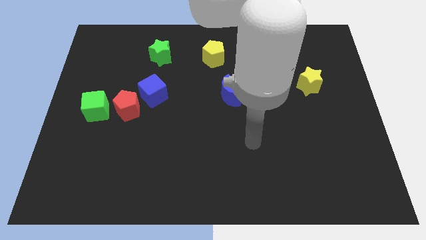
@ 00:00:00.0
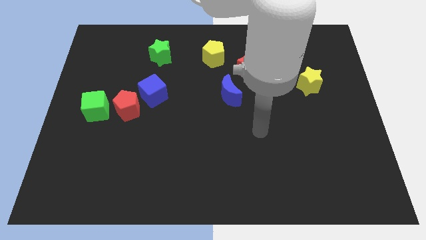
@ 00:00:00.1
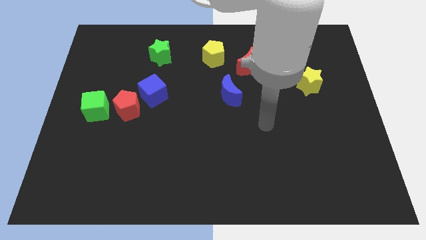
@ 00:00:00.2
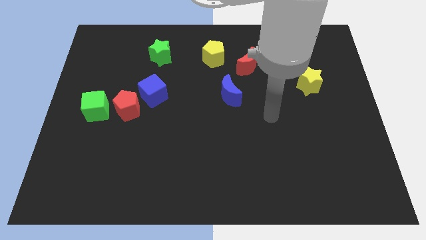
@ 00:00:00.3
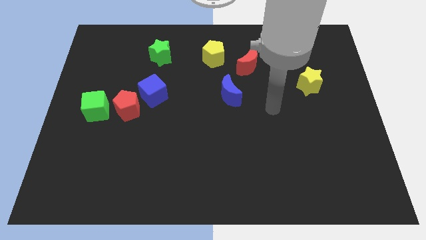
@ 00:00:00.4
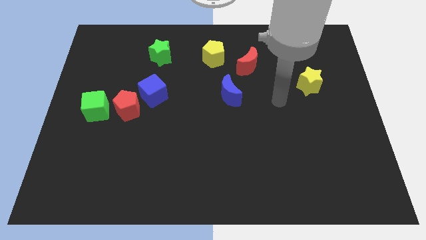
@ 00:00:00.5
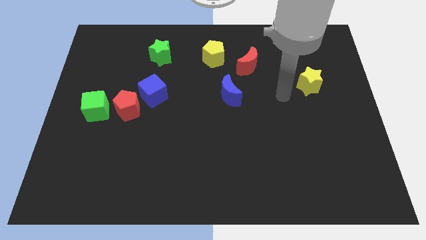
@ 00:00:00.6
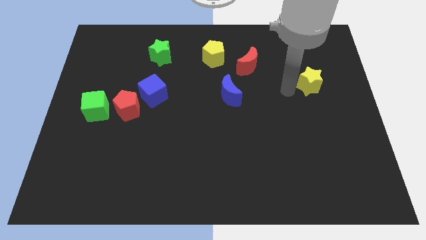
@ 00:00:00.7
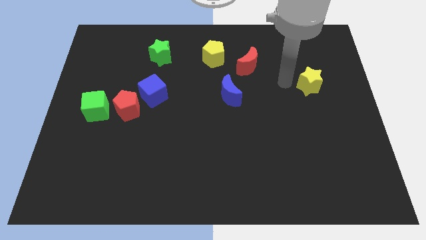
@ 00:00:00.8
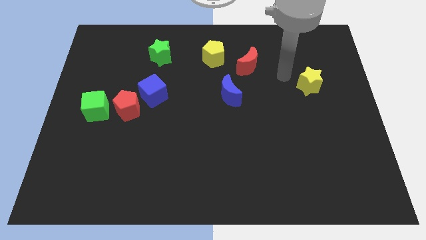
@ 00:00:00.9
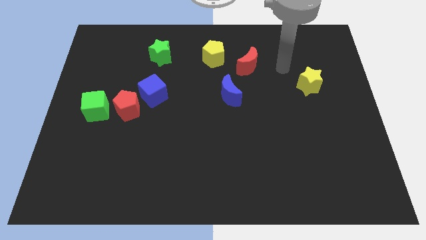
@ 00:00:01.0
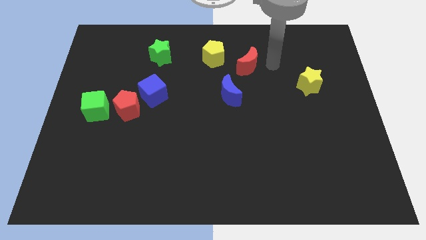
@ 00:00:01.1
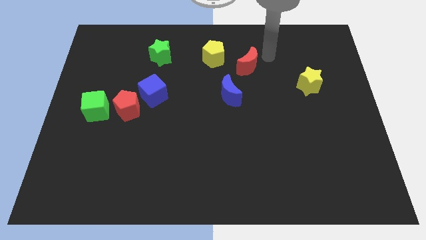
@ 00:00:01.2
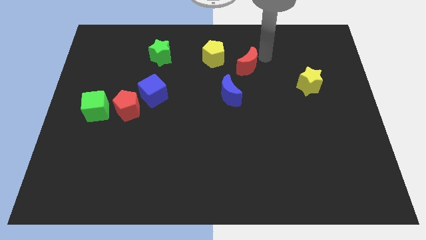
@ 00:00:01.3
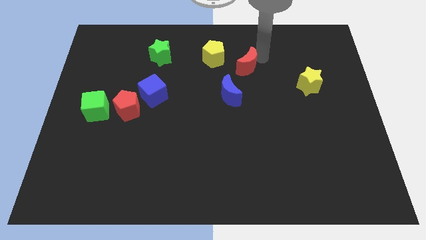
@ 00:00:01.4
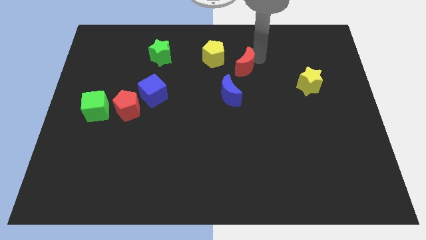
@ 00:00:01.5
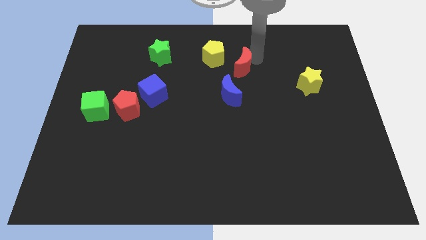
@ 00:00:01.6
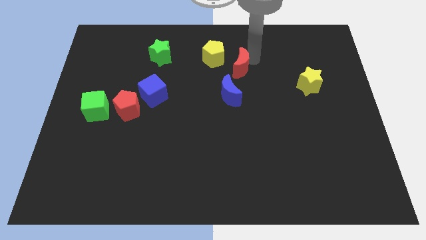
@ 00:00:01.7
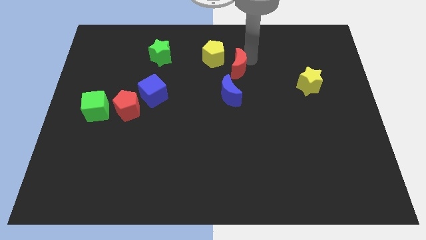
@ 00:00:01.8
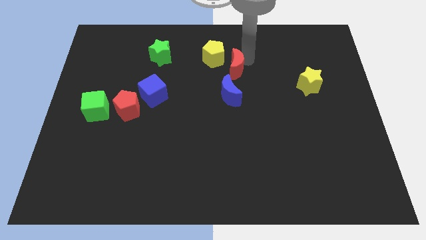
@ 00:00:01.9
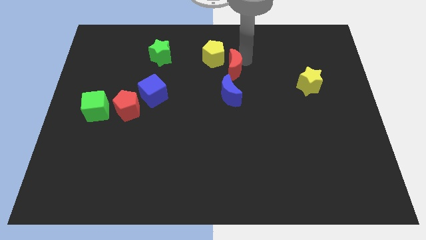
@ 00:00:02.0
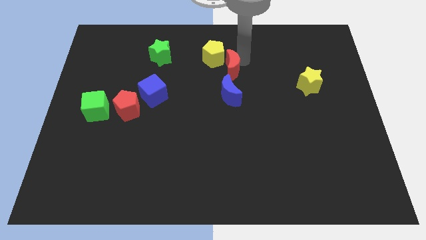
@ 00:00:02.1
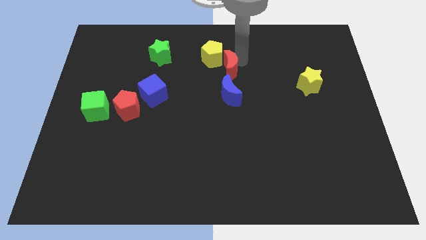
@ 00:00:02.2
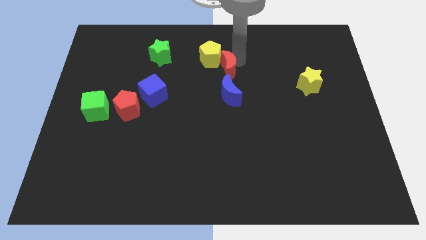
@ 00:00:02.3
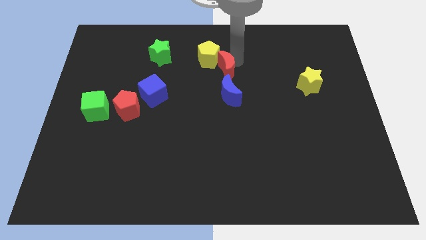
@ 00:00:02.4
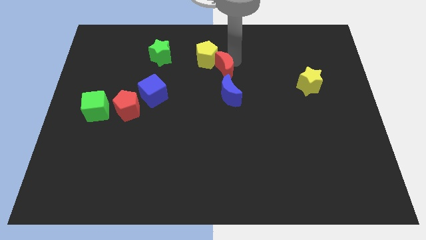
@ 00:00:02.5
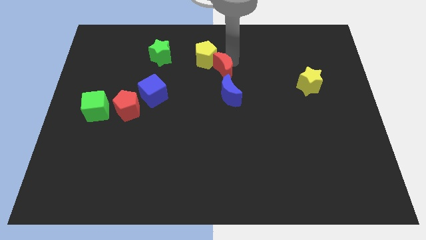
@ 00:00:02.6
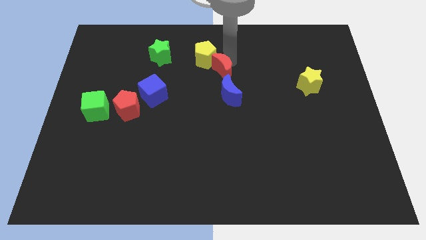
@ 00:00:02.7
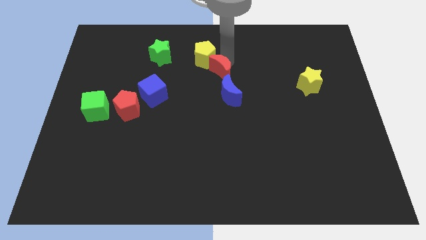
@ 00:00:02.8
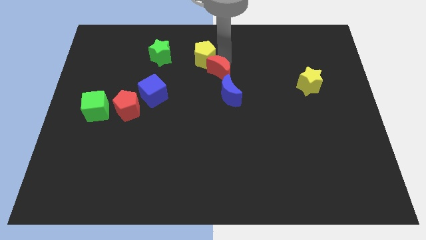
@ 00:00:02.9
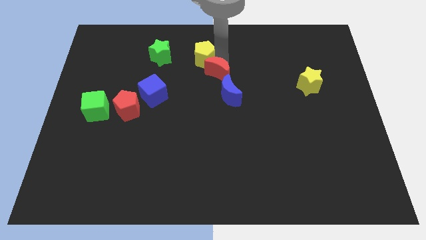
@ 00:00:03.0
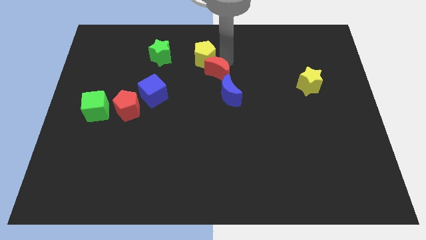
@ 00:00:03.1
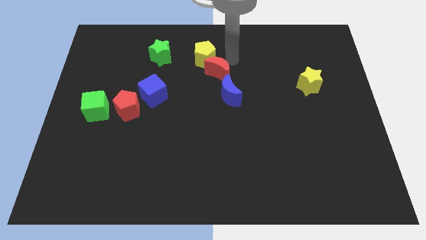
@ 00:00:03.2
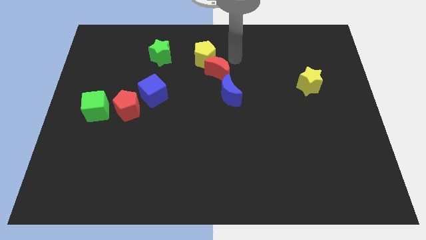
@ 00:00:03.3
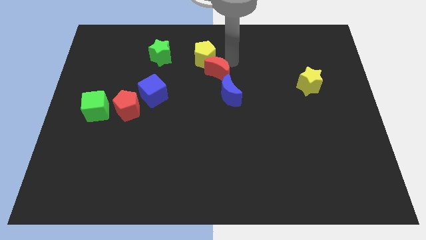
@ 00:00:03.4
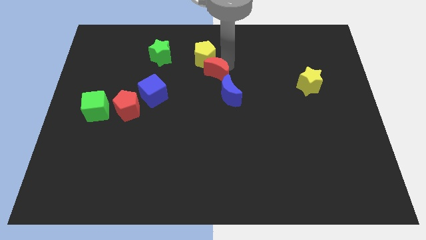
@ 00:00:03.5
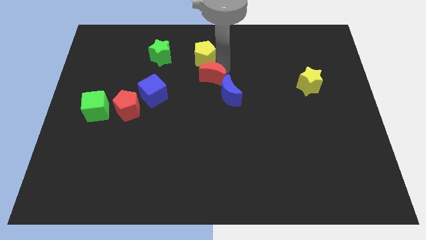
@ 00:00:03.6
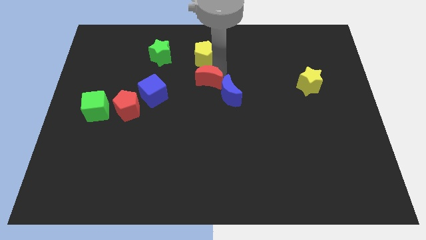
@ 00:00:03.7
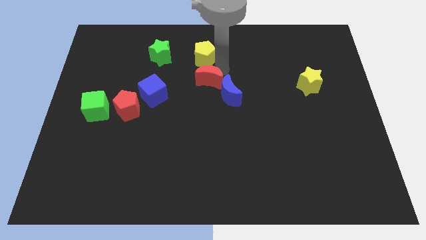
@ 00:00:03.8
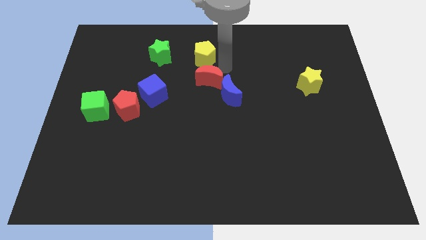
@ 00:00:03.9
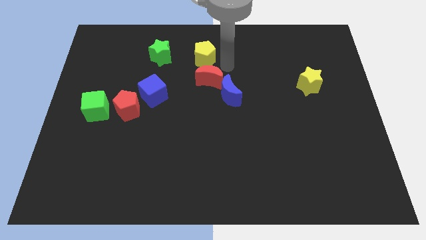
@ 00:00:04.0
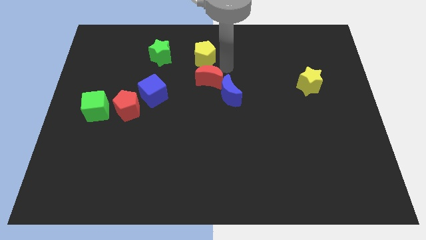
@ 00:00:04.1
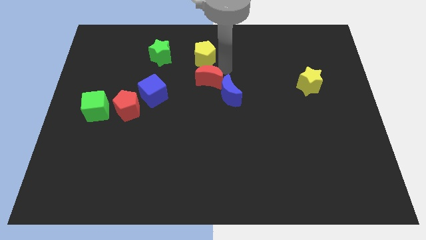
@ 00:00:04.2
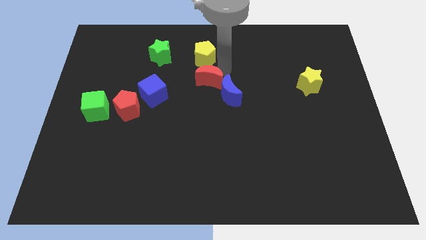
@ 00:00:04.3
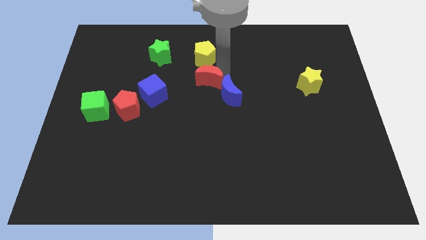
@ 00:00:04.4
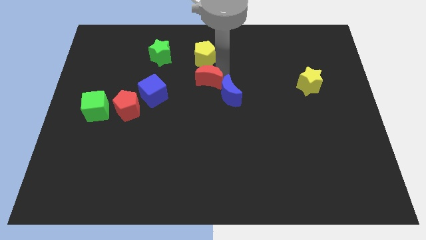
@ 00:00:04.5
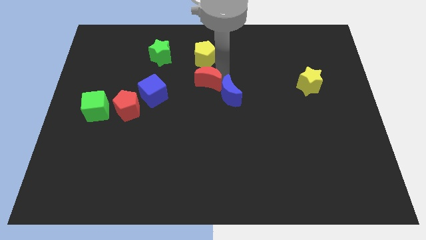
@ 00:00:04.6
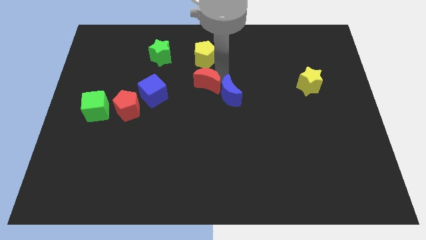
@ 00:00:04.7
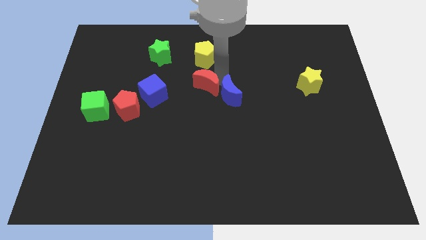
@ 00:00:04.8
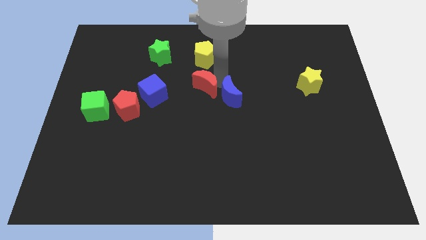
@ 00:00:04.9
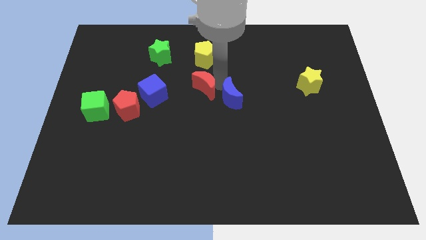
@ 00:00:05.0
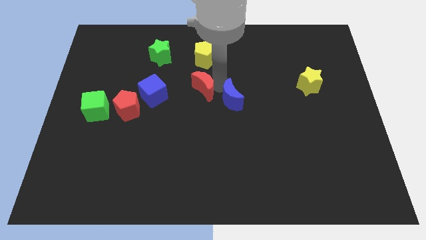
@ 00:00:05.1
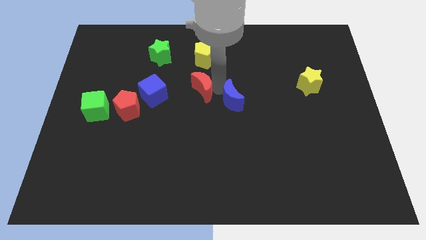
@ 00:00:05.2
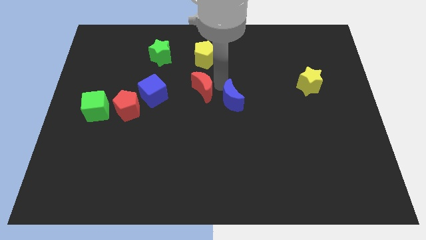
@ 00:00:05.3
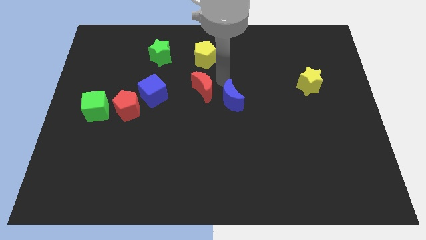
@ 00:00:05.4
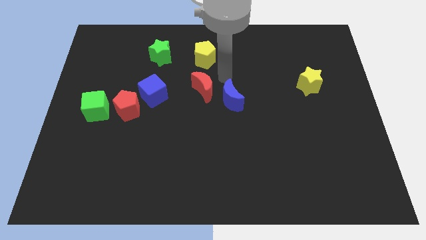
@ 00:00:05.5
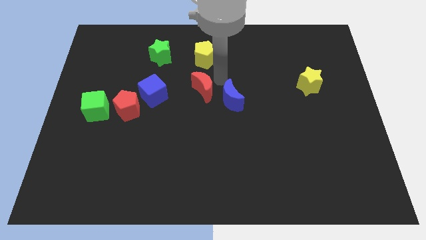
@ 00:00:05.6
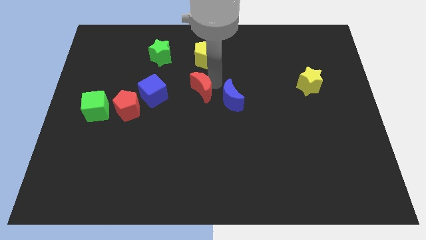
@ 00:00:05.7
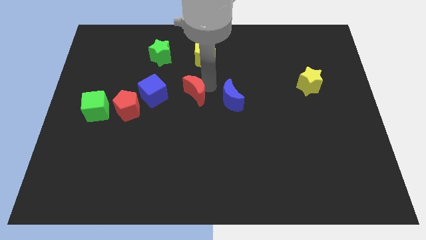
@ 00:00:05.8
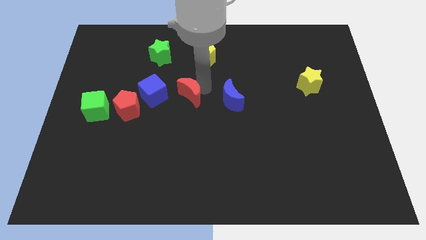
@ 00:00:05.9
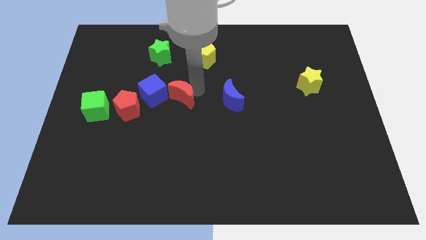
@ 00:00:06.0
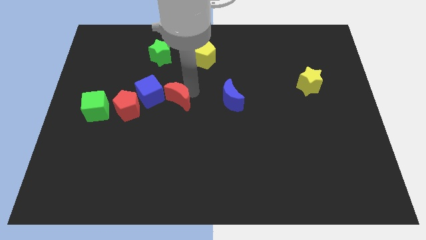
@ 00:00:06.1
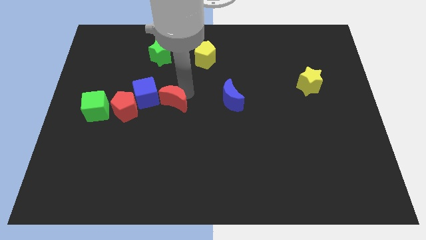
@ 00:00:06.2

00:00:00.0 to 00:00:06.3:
push the red moon down and then to the left

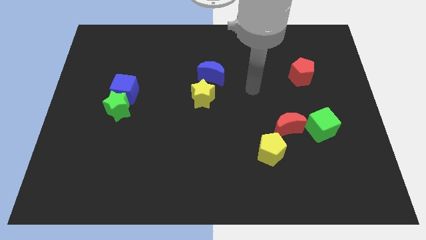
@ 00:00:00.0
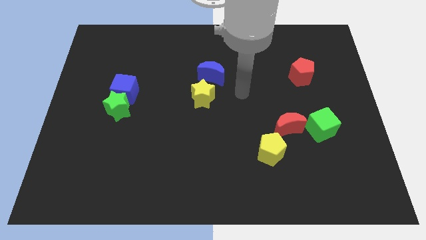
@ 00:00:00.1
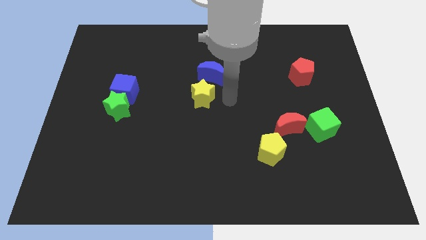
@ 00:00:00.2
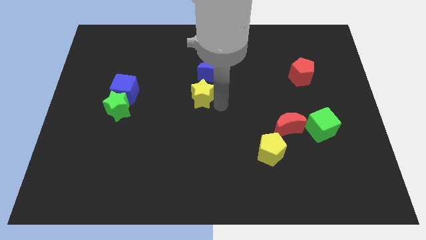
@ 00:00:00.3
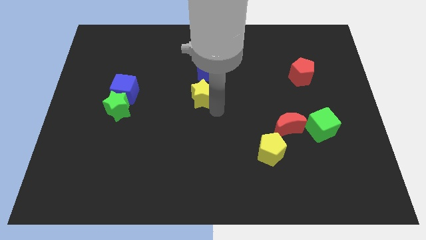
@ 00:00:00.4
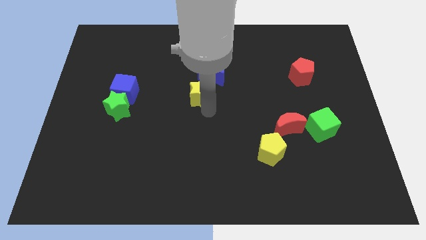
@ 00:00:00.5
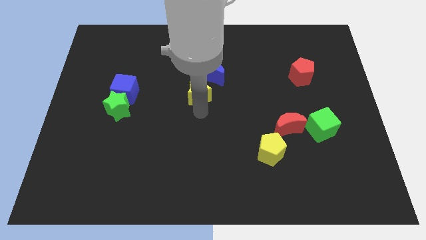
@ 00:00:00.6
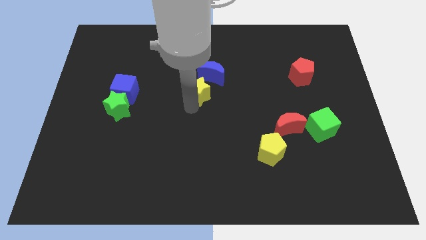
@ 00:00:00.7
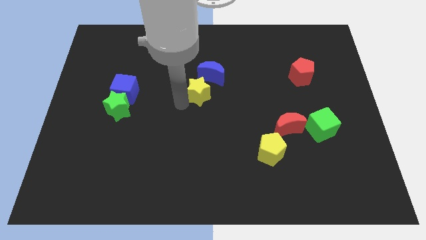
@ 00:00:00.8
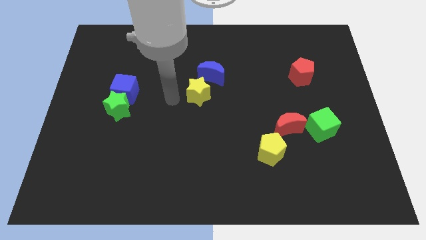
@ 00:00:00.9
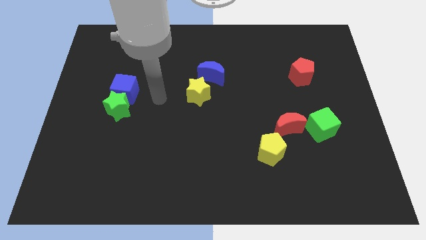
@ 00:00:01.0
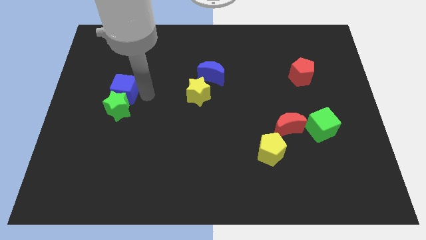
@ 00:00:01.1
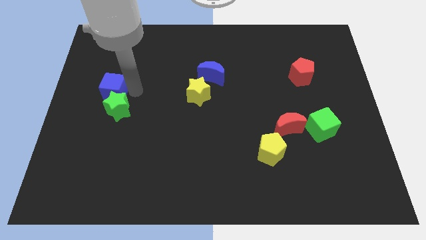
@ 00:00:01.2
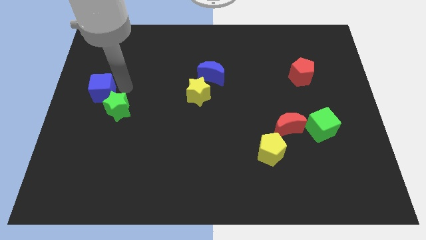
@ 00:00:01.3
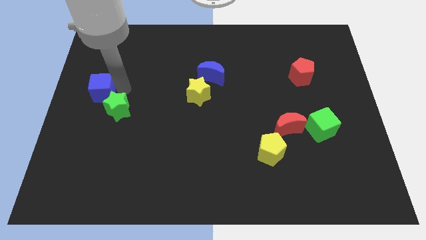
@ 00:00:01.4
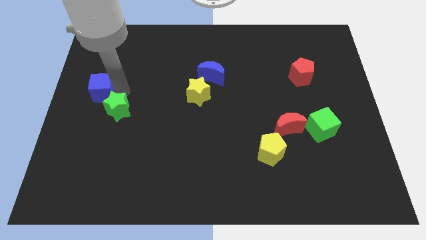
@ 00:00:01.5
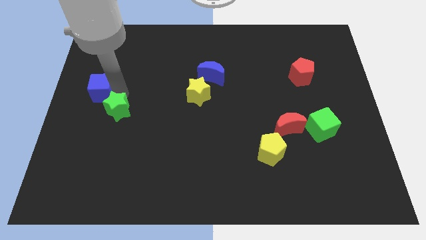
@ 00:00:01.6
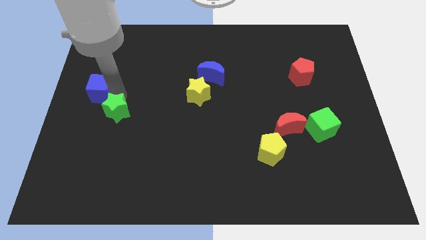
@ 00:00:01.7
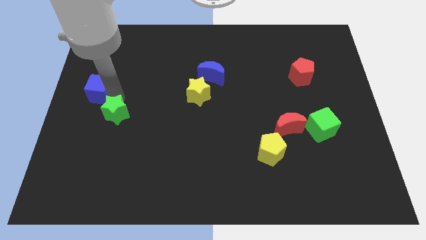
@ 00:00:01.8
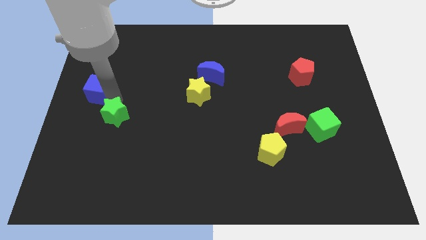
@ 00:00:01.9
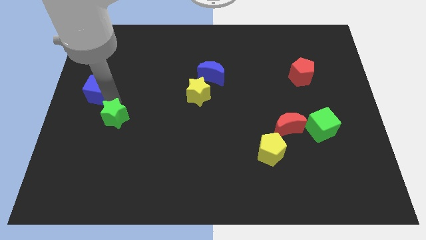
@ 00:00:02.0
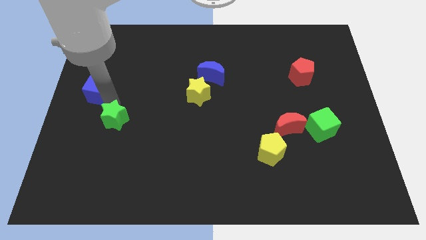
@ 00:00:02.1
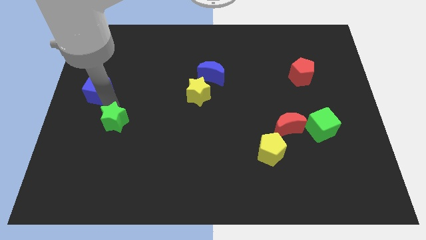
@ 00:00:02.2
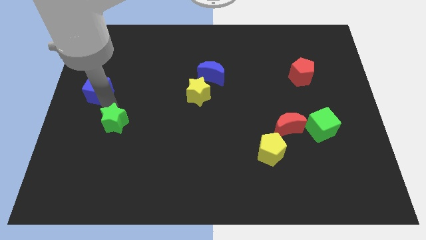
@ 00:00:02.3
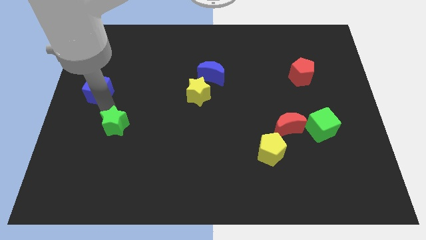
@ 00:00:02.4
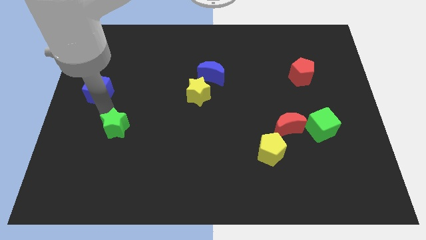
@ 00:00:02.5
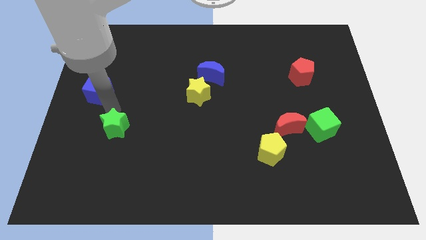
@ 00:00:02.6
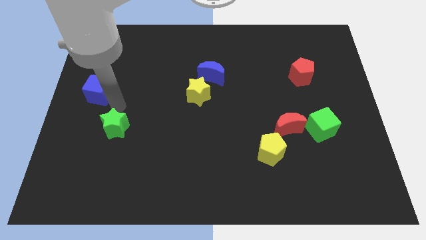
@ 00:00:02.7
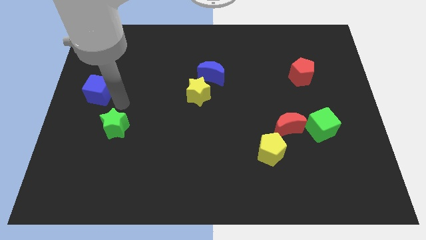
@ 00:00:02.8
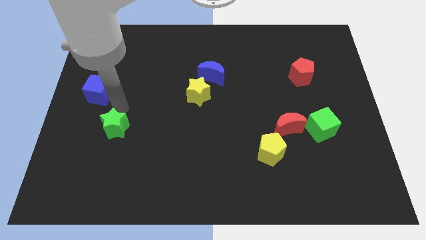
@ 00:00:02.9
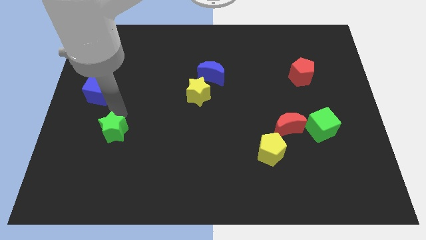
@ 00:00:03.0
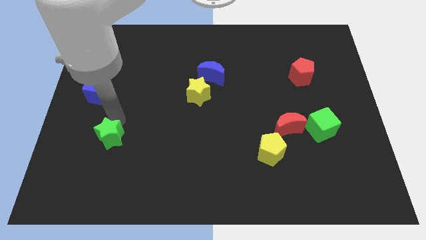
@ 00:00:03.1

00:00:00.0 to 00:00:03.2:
push the green star downwards a little bit
